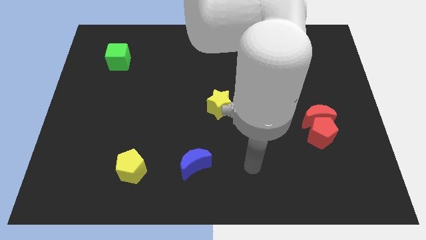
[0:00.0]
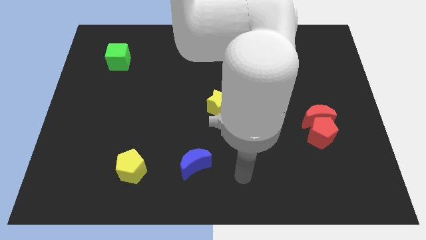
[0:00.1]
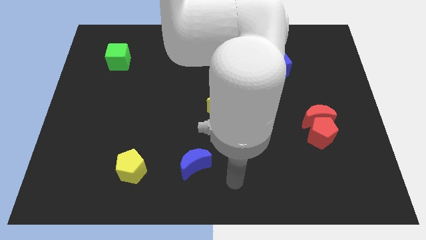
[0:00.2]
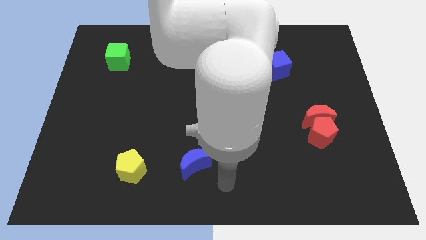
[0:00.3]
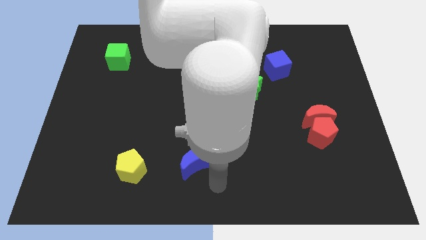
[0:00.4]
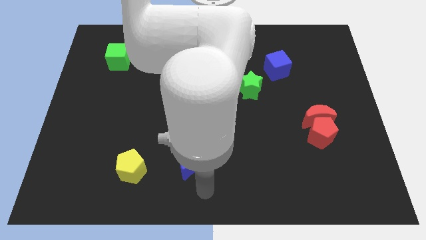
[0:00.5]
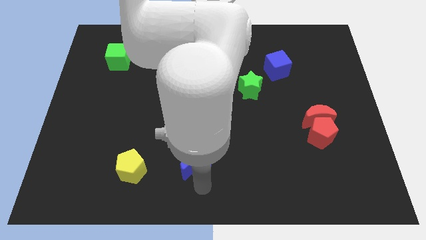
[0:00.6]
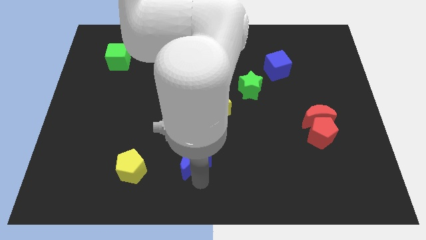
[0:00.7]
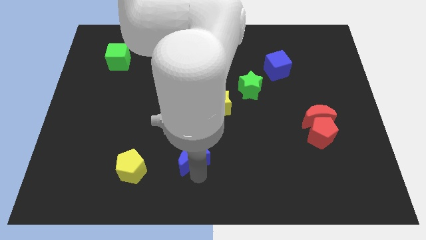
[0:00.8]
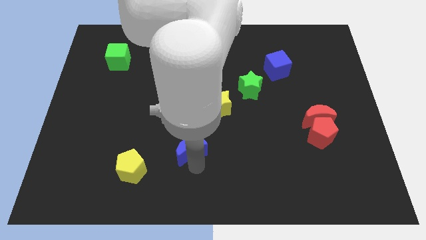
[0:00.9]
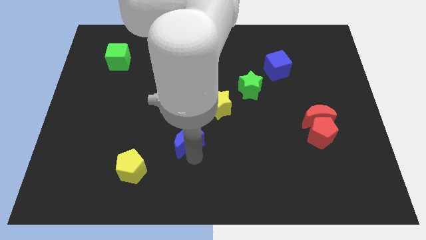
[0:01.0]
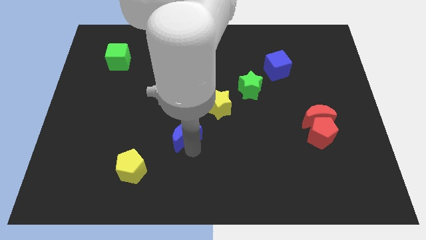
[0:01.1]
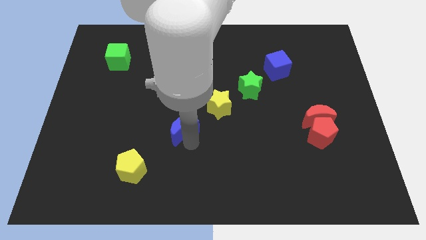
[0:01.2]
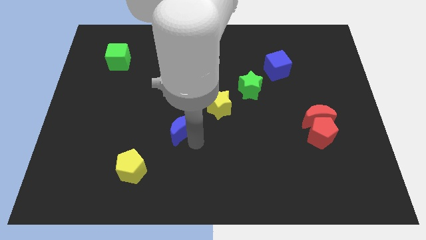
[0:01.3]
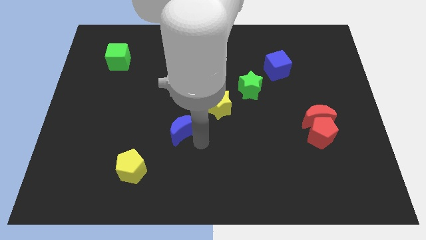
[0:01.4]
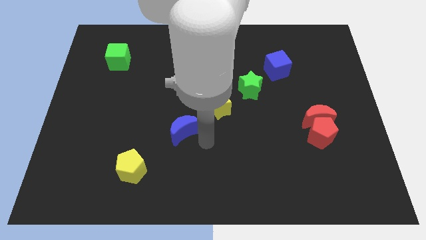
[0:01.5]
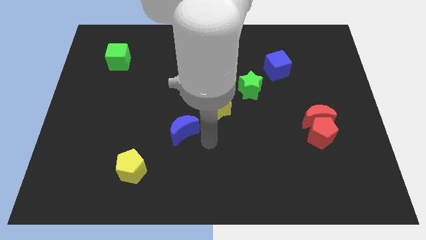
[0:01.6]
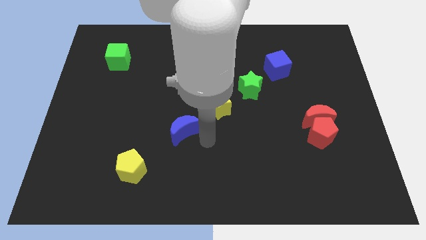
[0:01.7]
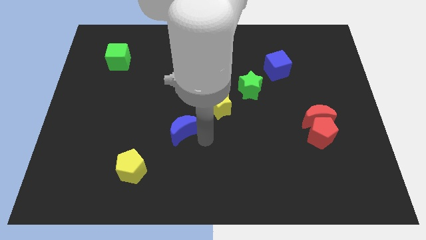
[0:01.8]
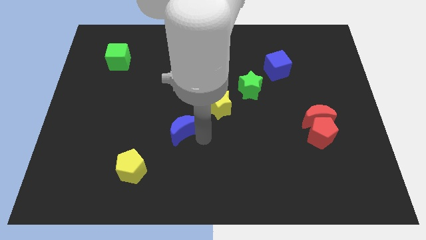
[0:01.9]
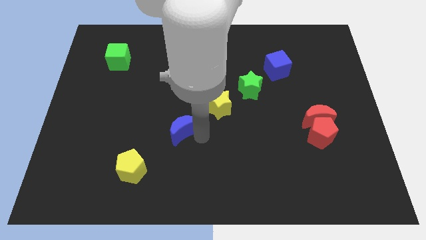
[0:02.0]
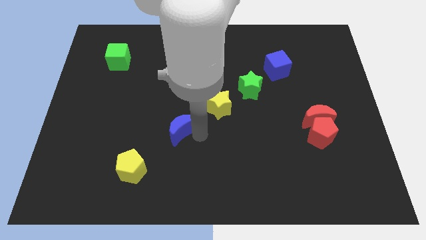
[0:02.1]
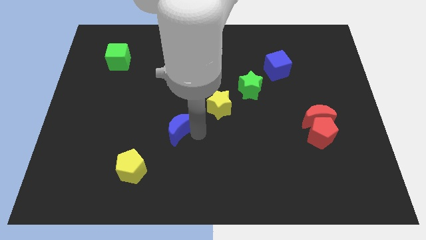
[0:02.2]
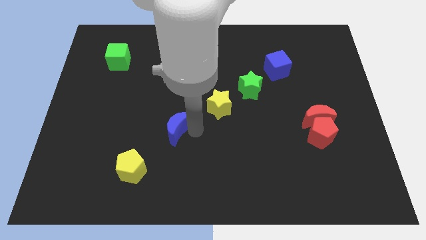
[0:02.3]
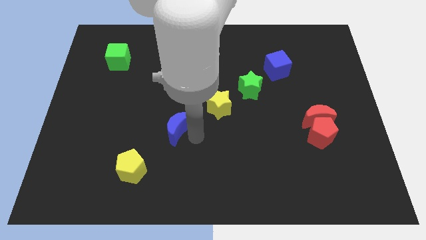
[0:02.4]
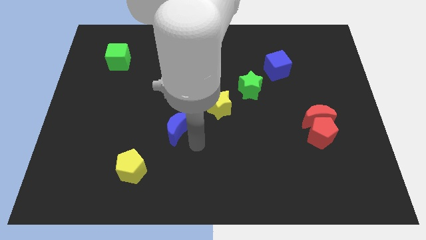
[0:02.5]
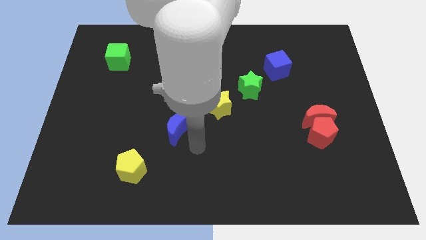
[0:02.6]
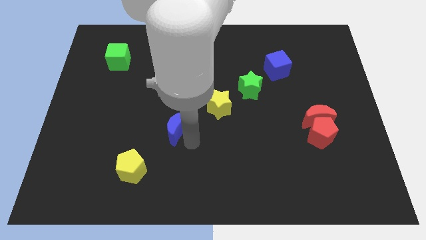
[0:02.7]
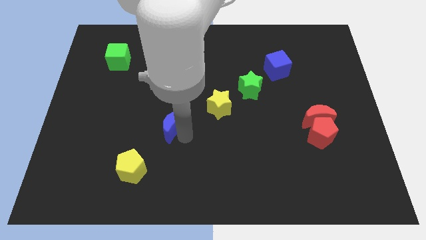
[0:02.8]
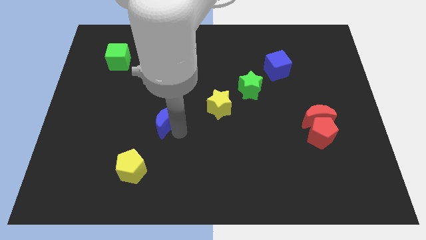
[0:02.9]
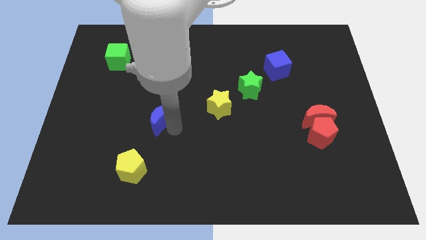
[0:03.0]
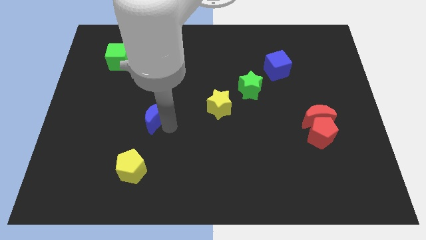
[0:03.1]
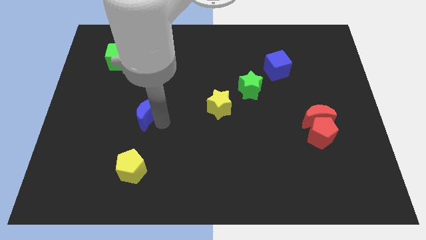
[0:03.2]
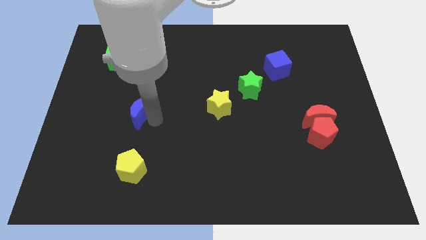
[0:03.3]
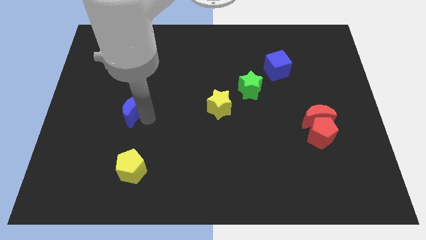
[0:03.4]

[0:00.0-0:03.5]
move the blue moon upwards and left diagonally

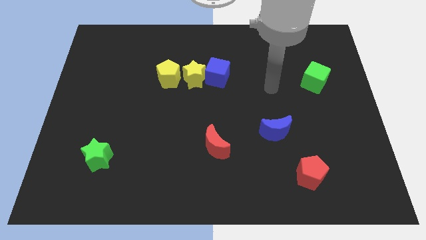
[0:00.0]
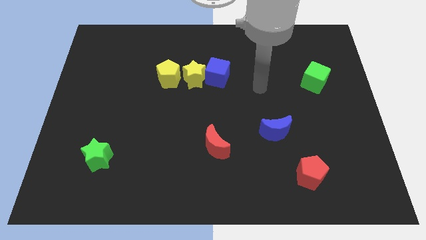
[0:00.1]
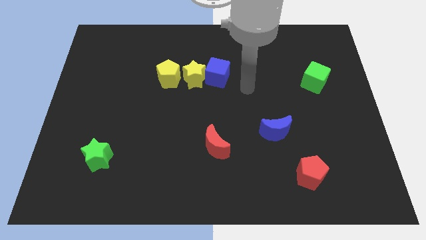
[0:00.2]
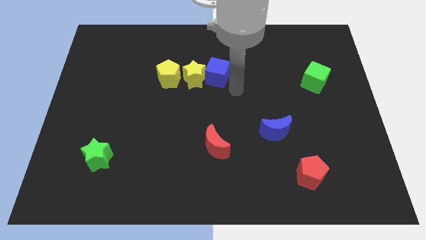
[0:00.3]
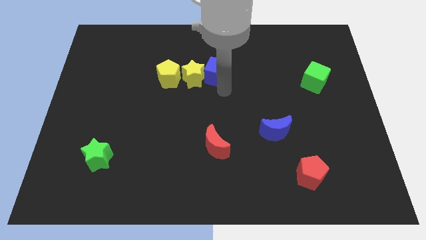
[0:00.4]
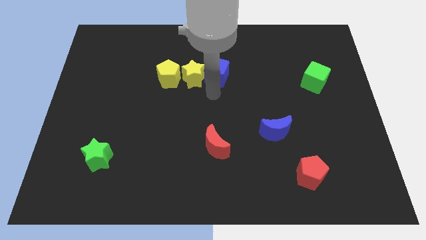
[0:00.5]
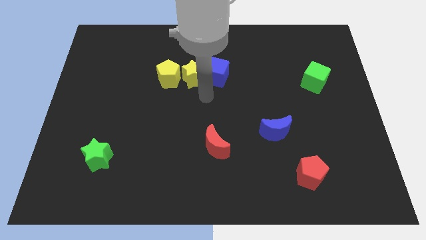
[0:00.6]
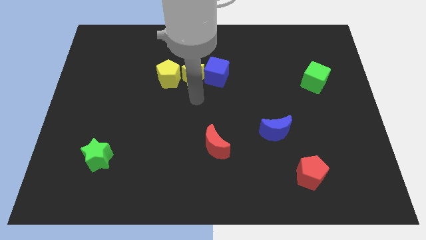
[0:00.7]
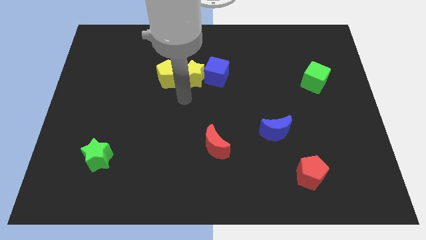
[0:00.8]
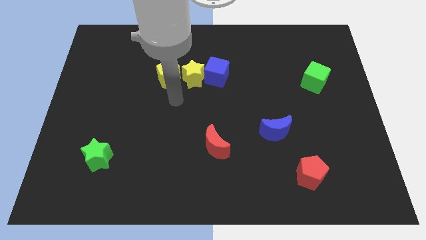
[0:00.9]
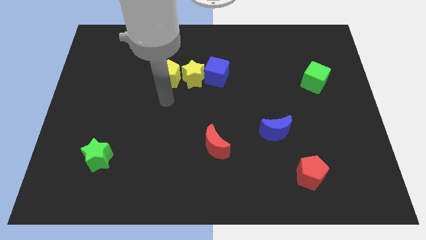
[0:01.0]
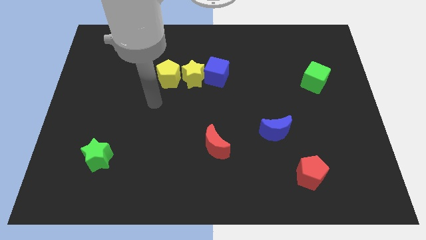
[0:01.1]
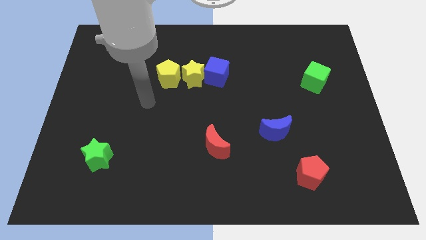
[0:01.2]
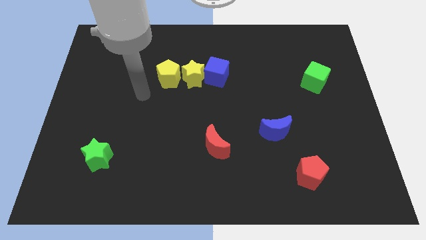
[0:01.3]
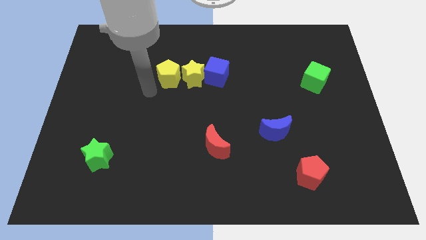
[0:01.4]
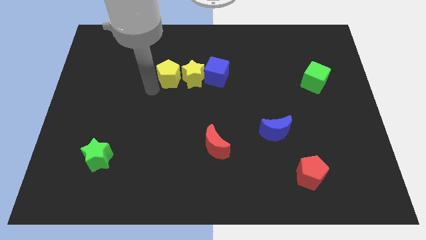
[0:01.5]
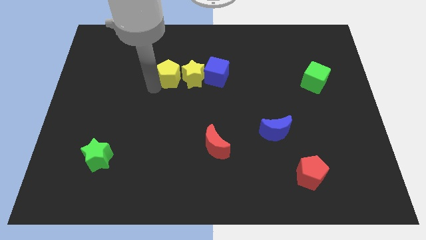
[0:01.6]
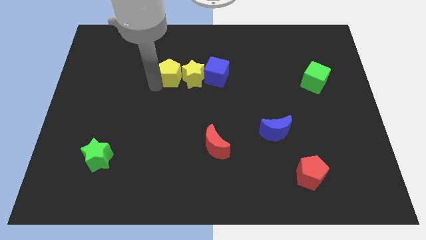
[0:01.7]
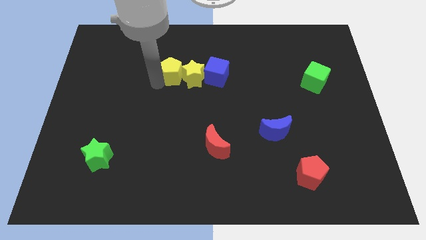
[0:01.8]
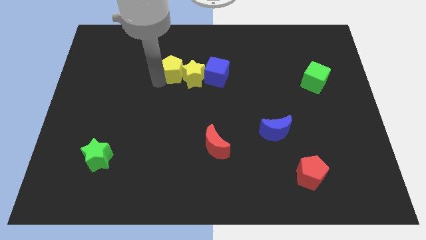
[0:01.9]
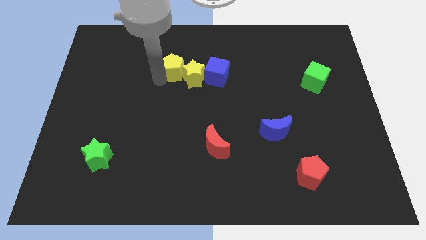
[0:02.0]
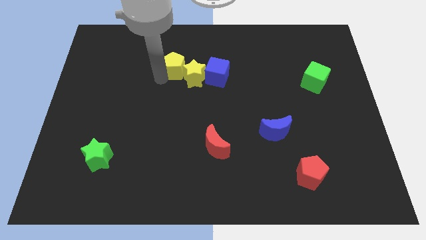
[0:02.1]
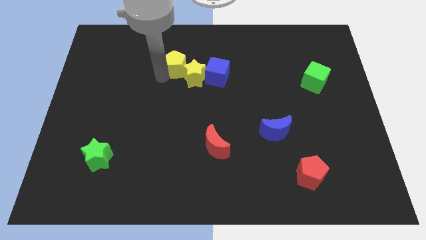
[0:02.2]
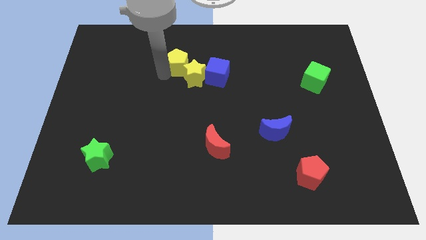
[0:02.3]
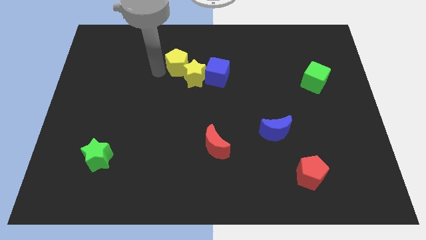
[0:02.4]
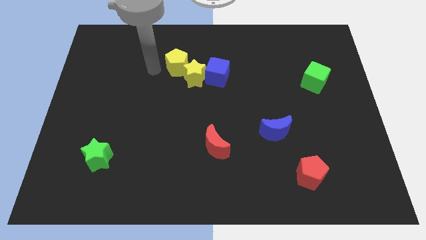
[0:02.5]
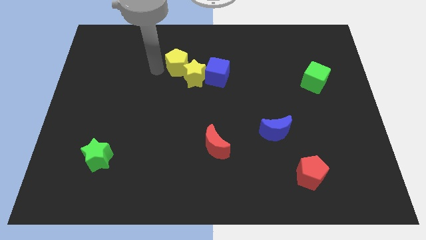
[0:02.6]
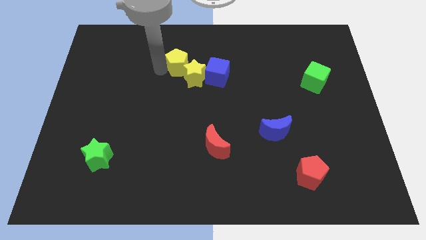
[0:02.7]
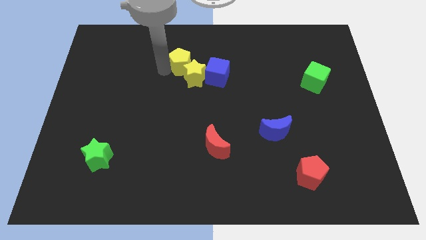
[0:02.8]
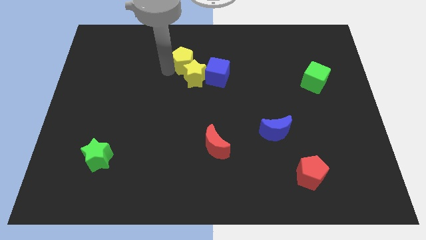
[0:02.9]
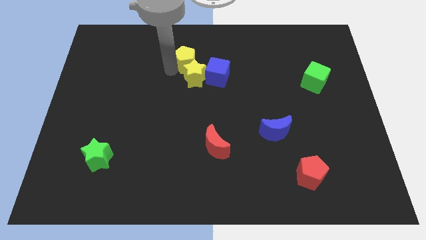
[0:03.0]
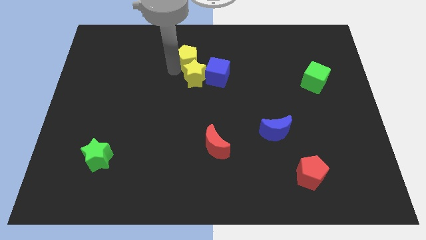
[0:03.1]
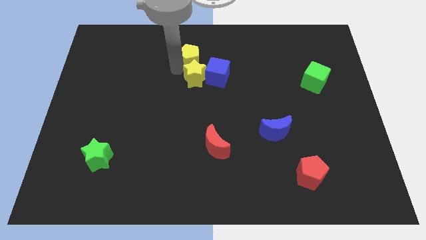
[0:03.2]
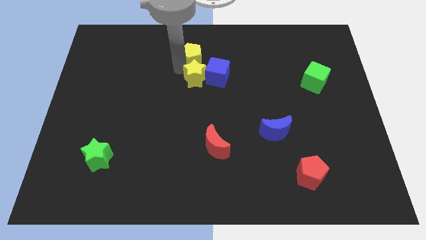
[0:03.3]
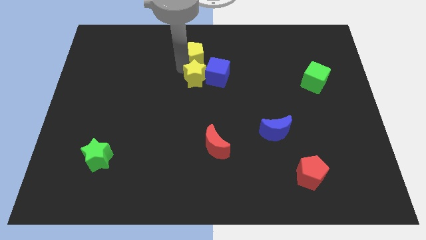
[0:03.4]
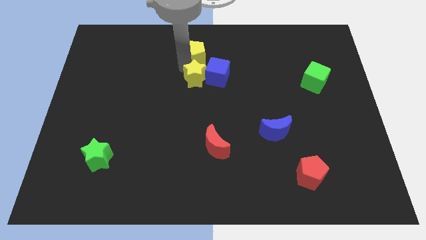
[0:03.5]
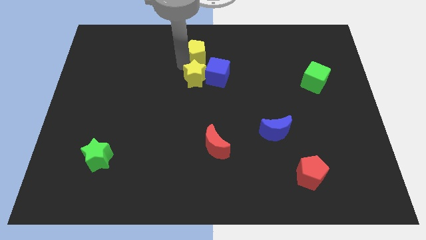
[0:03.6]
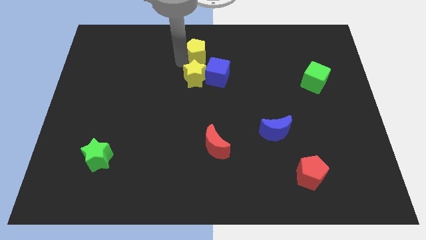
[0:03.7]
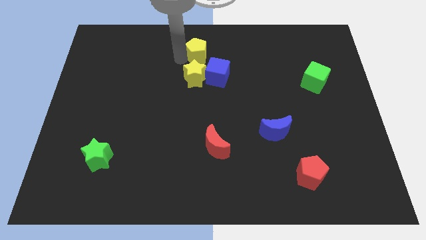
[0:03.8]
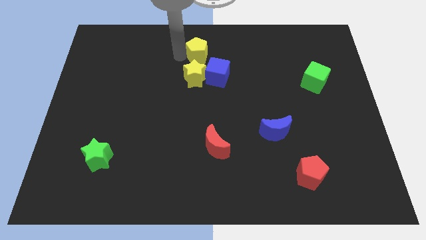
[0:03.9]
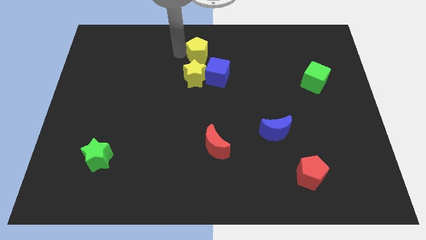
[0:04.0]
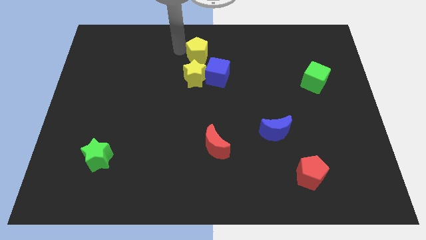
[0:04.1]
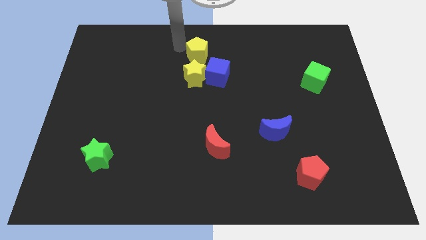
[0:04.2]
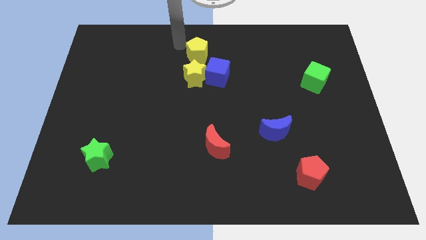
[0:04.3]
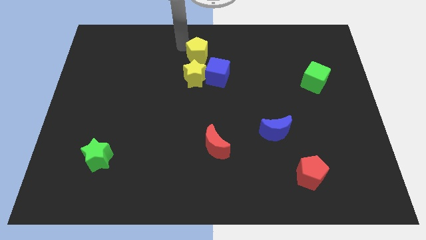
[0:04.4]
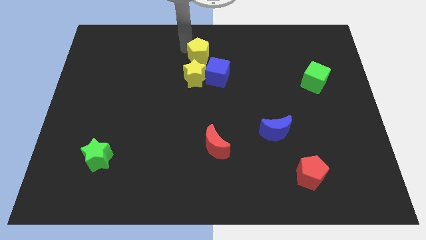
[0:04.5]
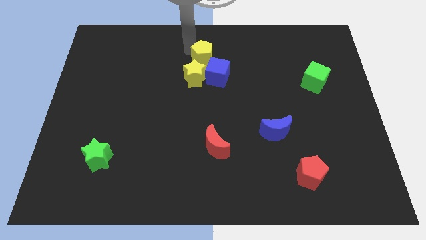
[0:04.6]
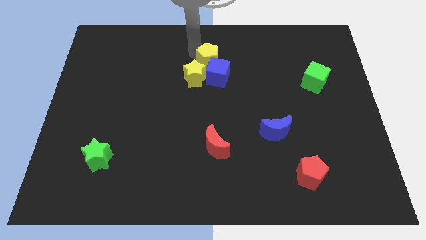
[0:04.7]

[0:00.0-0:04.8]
push the yellow pentagon slightly right
